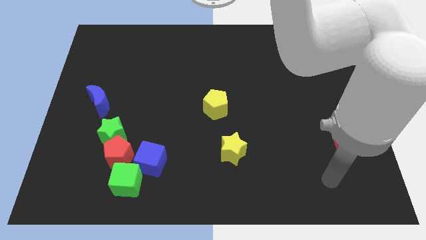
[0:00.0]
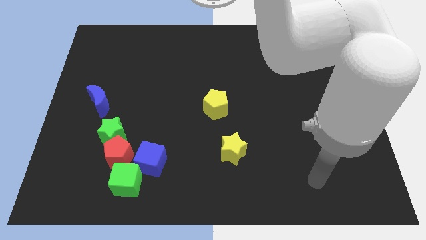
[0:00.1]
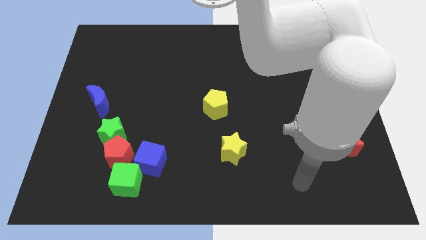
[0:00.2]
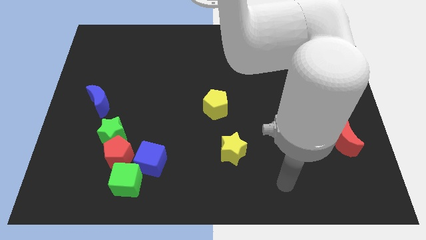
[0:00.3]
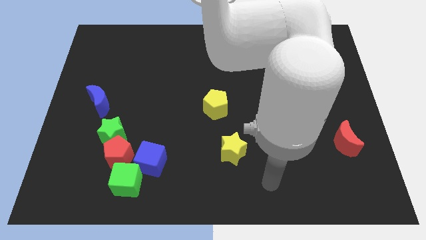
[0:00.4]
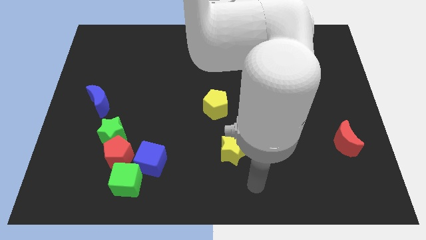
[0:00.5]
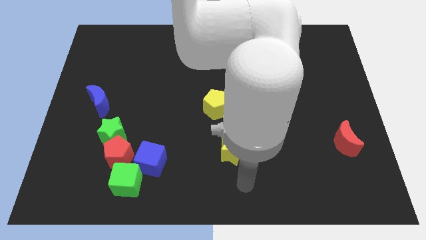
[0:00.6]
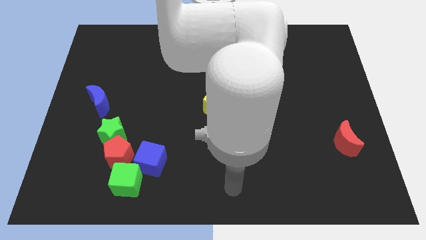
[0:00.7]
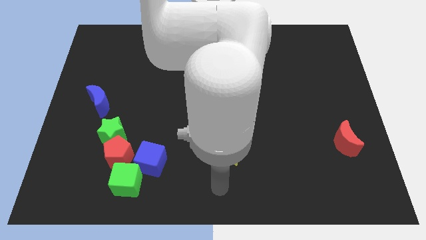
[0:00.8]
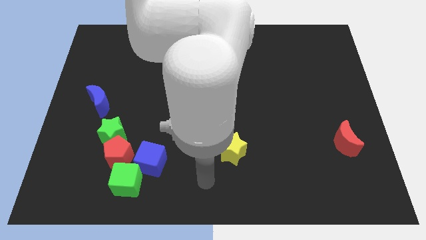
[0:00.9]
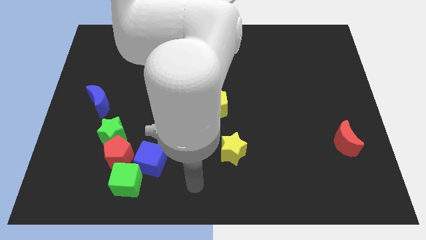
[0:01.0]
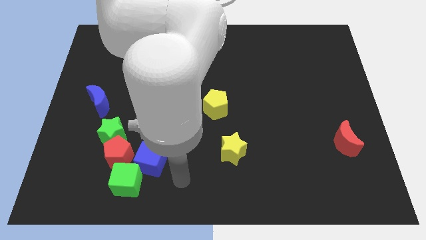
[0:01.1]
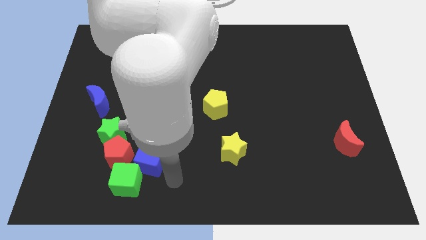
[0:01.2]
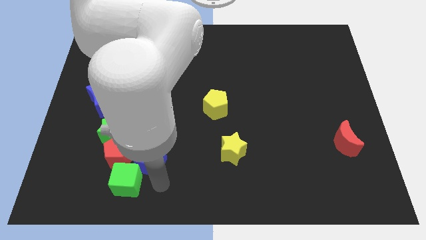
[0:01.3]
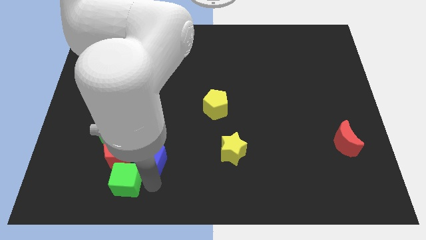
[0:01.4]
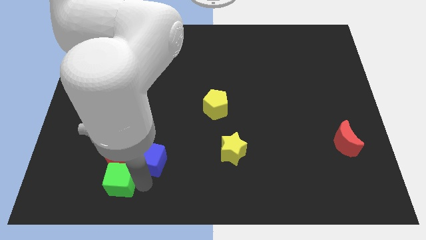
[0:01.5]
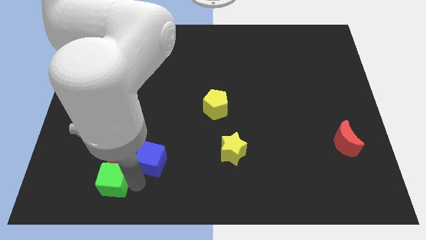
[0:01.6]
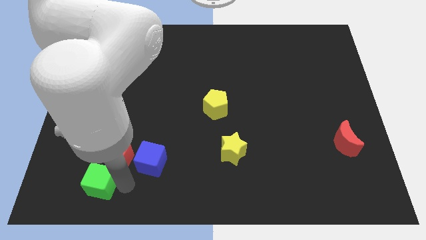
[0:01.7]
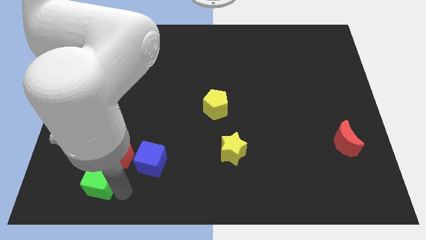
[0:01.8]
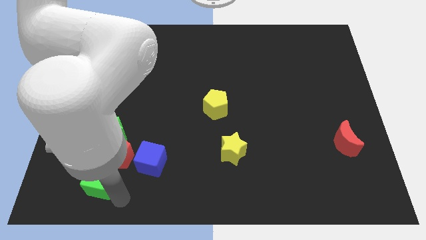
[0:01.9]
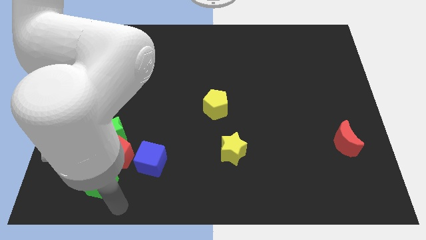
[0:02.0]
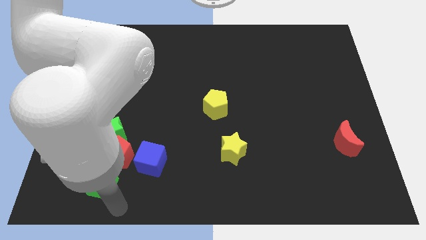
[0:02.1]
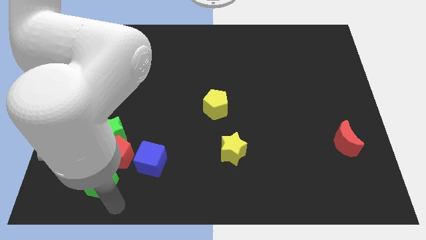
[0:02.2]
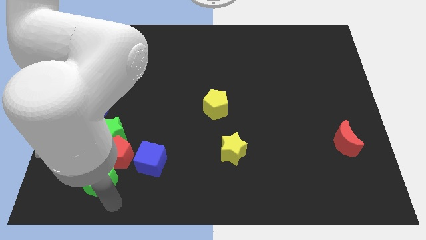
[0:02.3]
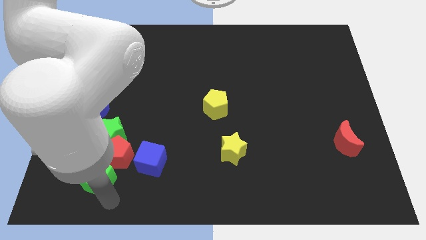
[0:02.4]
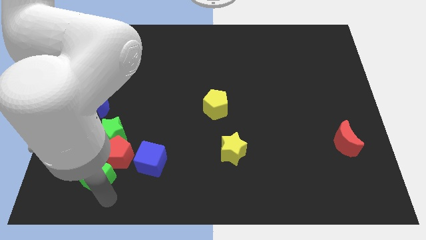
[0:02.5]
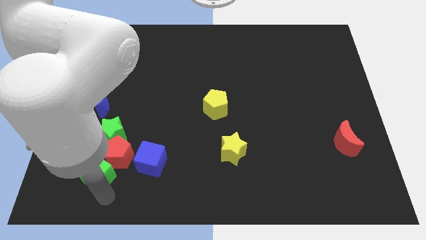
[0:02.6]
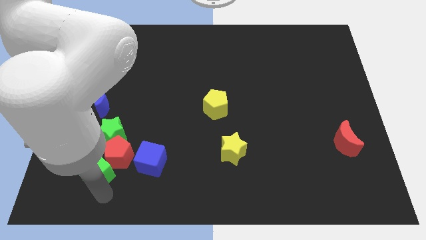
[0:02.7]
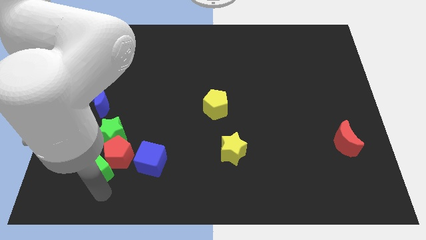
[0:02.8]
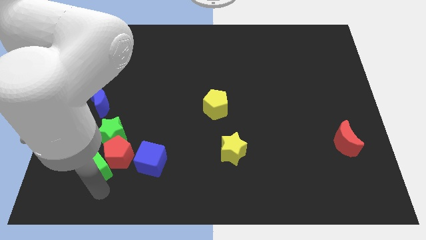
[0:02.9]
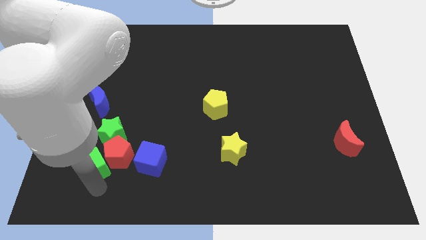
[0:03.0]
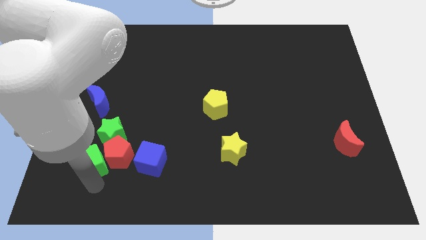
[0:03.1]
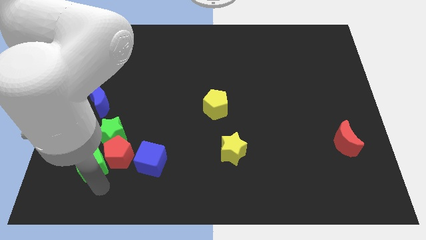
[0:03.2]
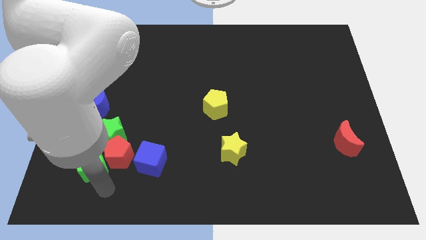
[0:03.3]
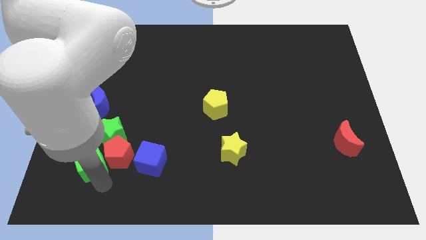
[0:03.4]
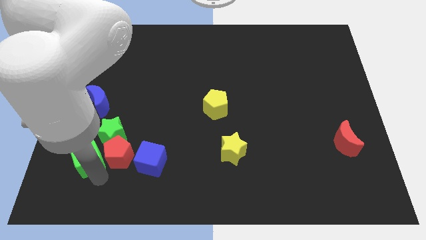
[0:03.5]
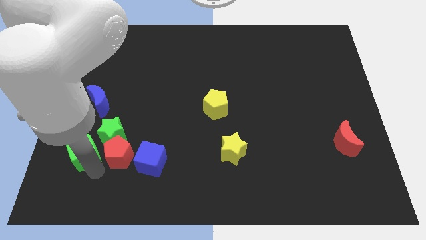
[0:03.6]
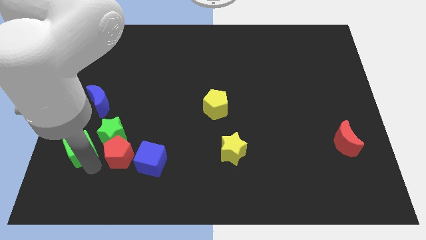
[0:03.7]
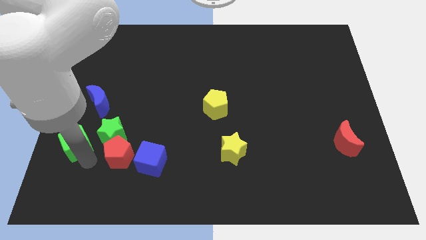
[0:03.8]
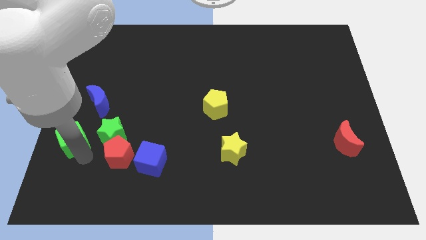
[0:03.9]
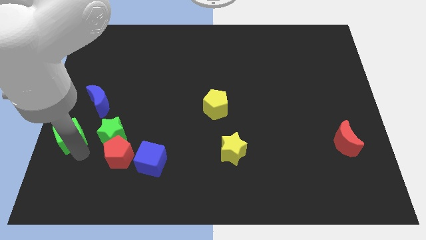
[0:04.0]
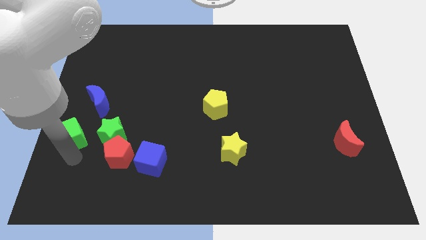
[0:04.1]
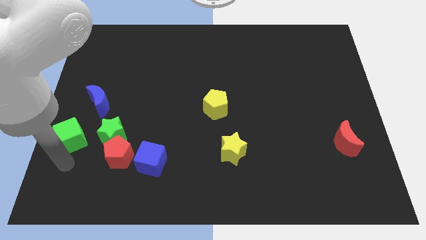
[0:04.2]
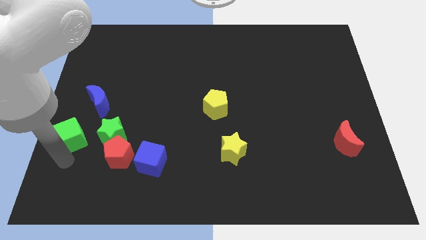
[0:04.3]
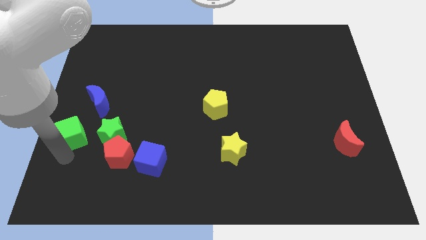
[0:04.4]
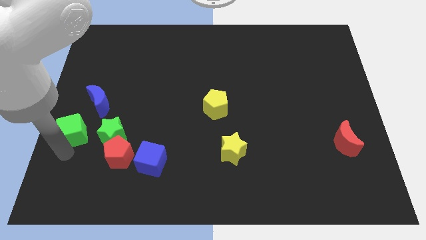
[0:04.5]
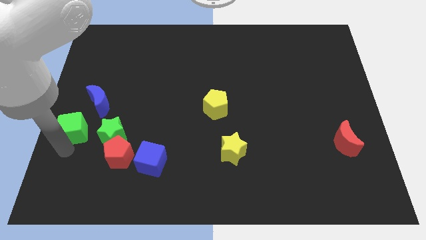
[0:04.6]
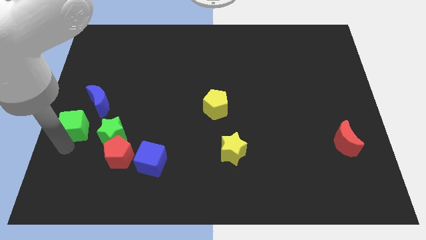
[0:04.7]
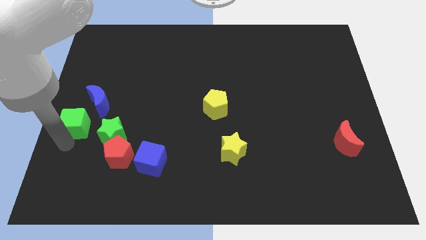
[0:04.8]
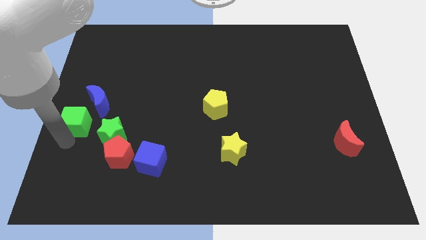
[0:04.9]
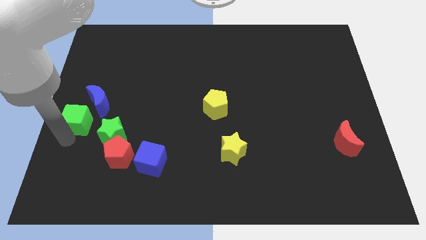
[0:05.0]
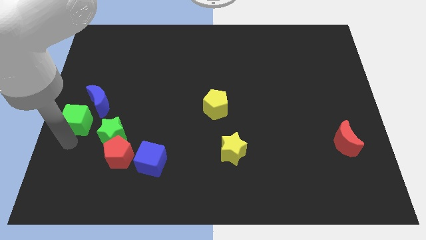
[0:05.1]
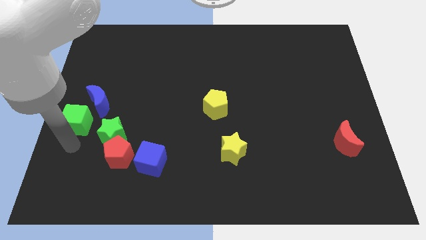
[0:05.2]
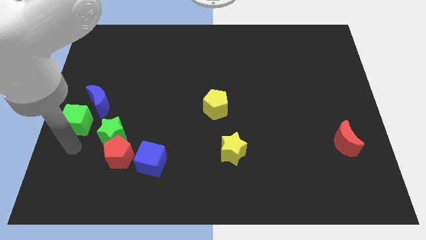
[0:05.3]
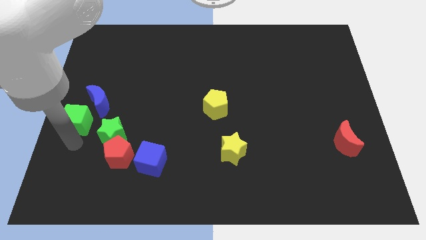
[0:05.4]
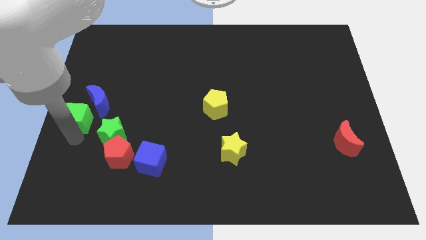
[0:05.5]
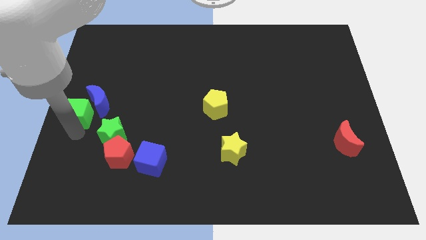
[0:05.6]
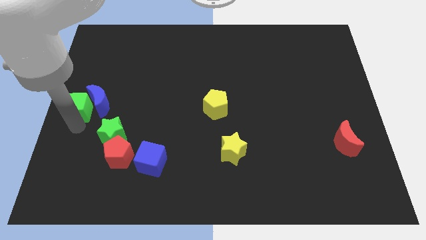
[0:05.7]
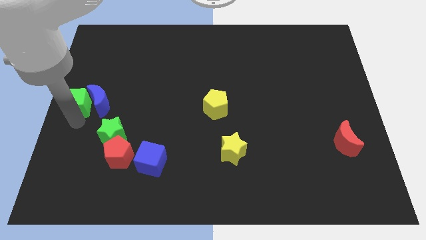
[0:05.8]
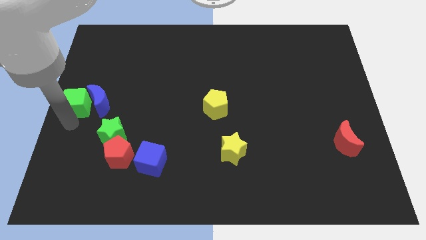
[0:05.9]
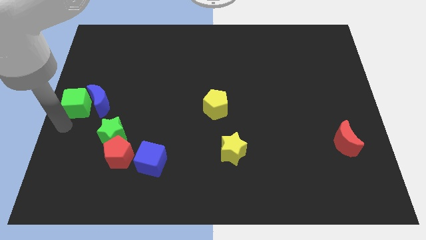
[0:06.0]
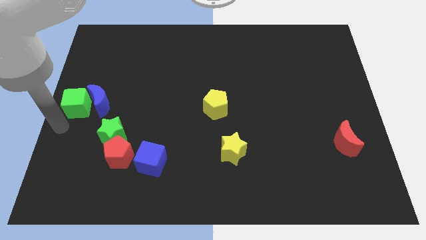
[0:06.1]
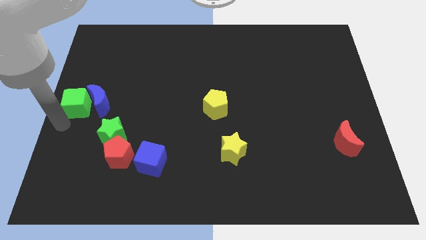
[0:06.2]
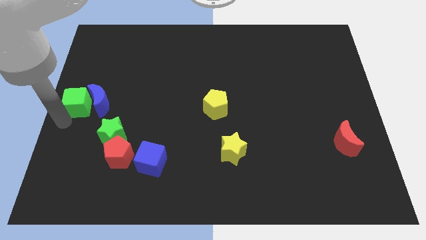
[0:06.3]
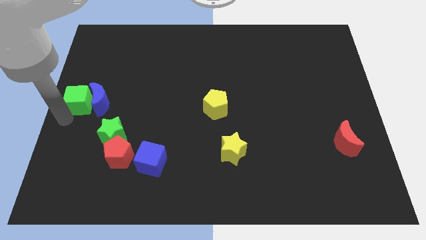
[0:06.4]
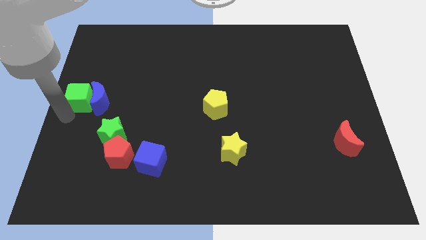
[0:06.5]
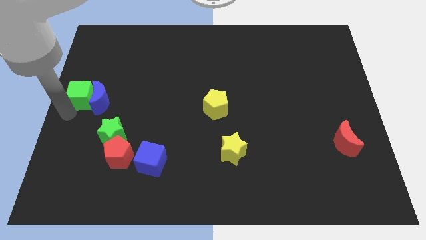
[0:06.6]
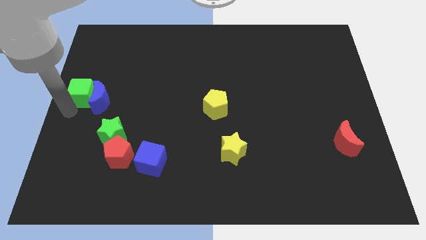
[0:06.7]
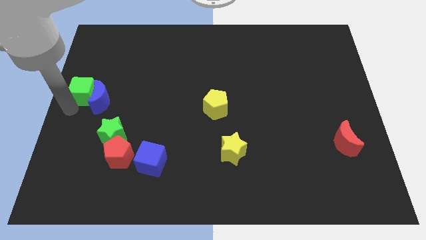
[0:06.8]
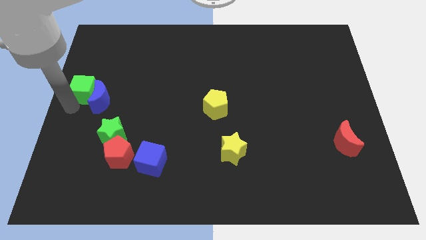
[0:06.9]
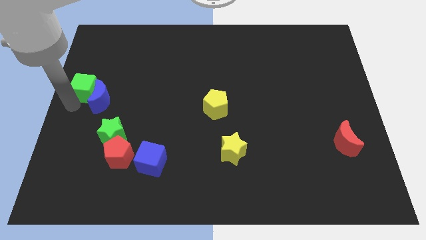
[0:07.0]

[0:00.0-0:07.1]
put the green cube to the top of the blue moon
